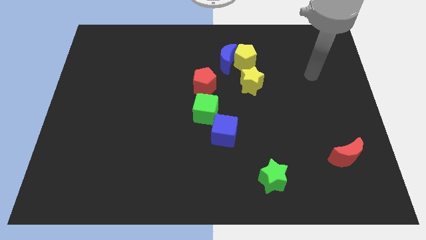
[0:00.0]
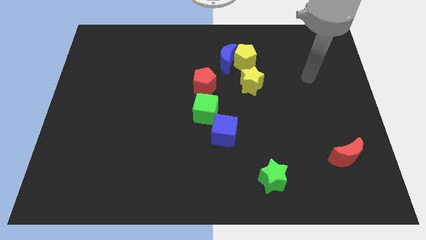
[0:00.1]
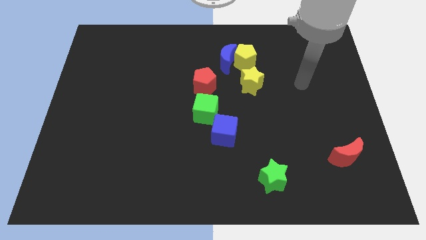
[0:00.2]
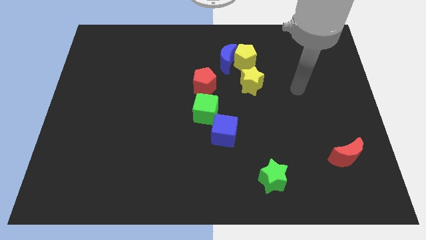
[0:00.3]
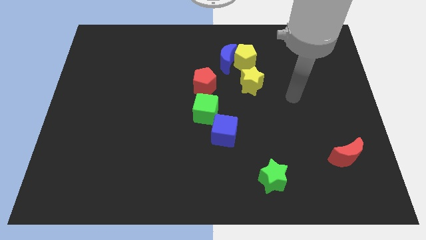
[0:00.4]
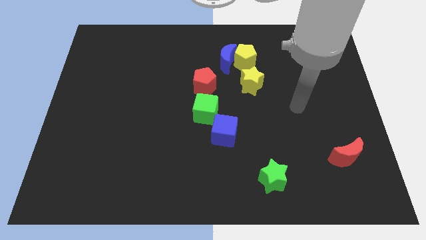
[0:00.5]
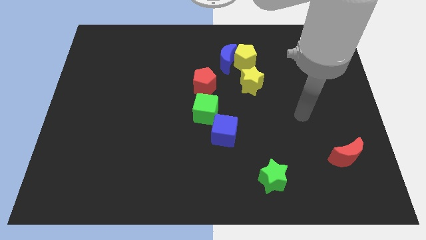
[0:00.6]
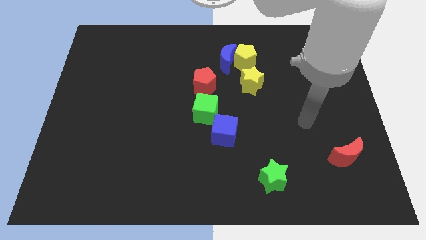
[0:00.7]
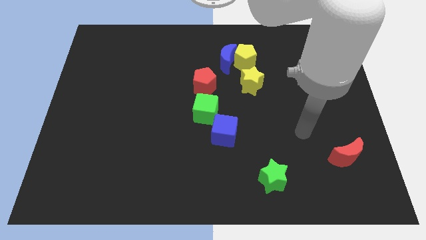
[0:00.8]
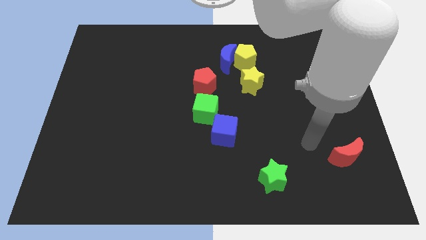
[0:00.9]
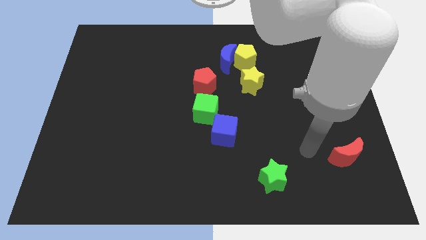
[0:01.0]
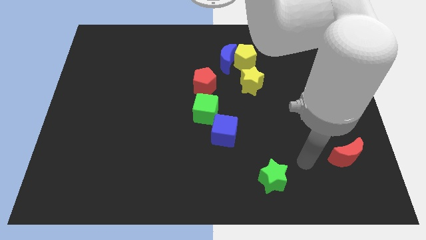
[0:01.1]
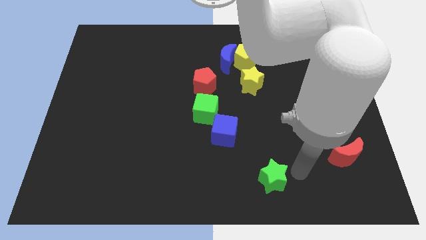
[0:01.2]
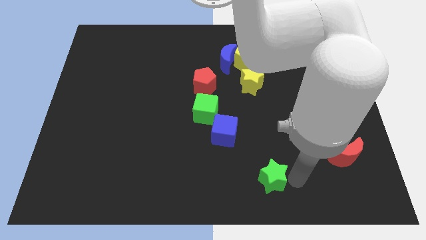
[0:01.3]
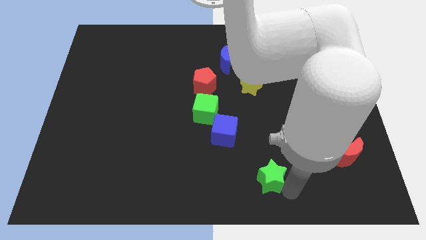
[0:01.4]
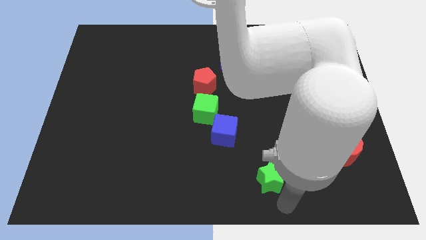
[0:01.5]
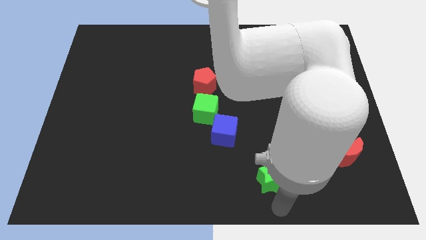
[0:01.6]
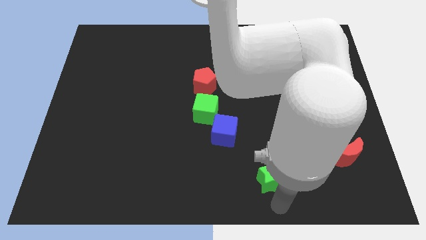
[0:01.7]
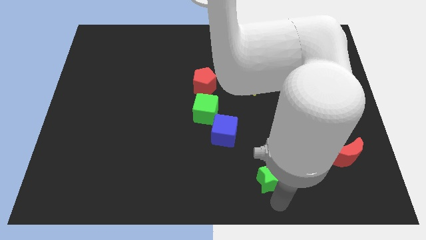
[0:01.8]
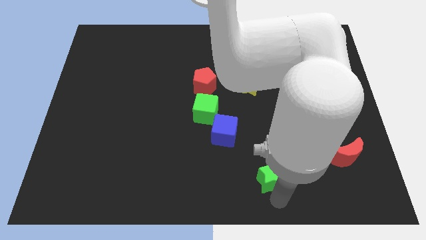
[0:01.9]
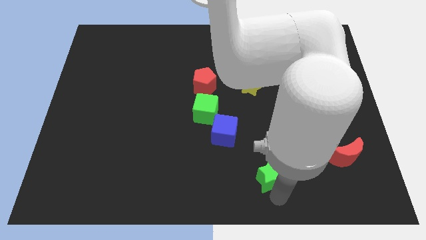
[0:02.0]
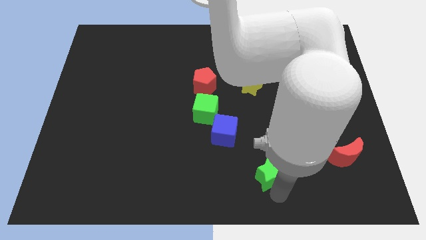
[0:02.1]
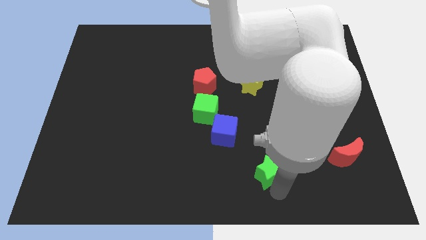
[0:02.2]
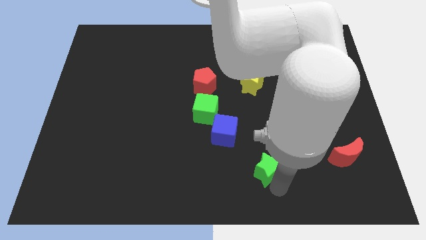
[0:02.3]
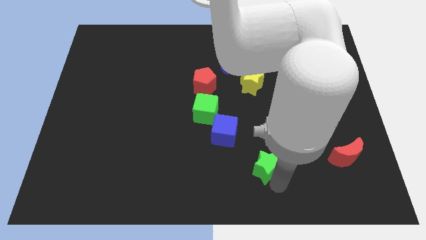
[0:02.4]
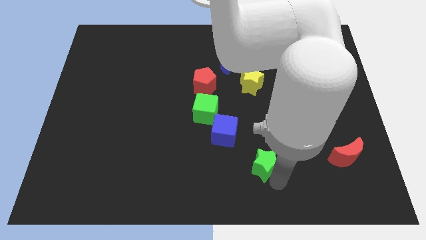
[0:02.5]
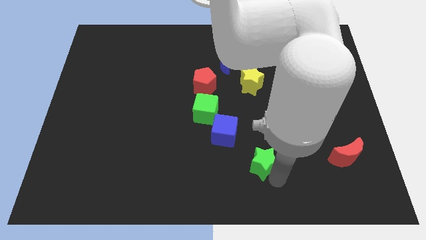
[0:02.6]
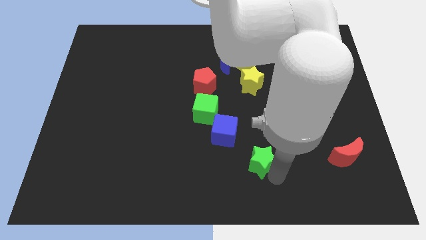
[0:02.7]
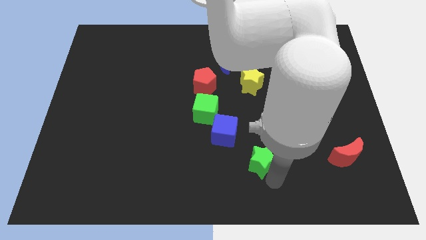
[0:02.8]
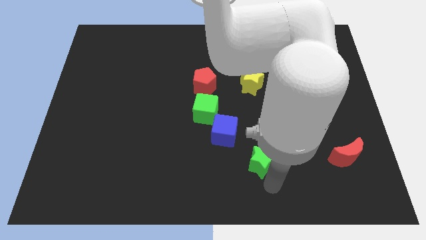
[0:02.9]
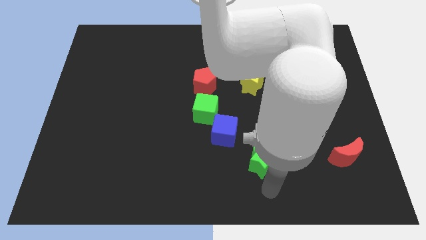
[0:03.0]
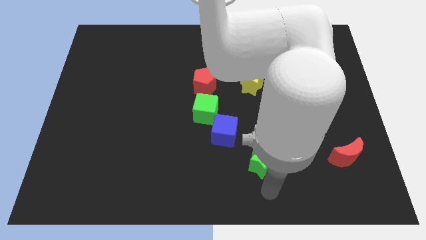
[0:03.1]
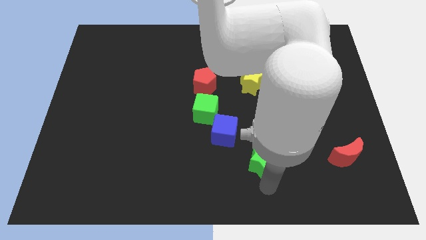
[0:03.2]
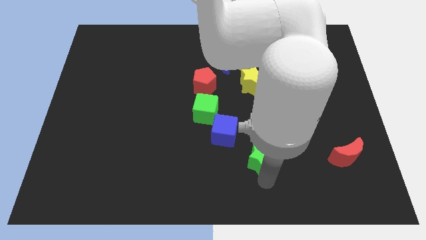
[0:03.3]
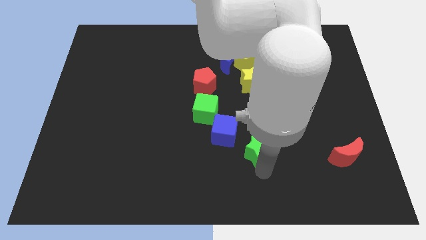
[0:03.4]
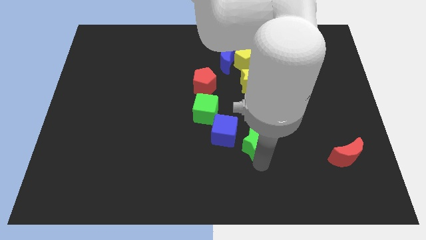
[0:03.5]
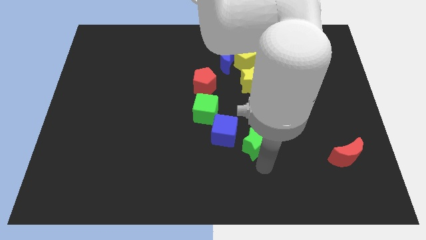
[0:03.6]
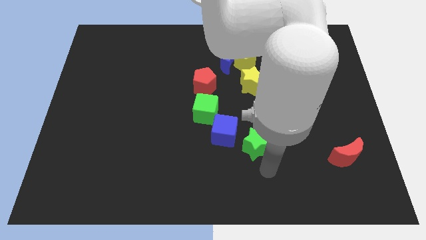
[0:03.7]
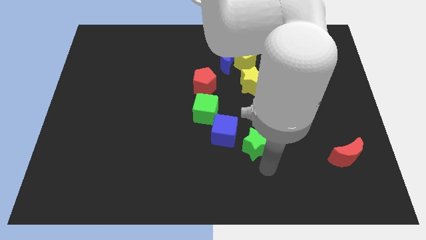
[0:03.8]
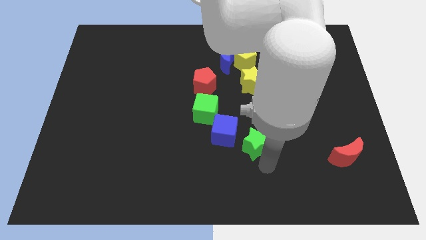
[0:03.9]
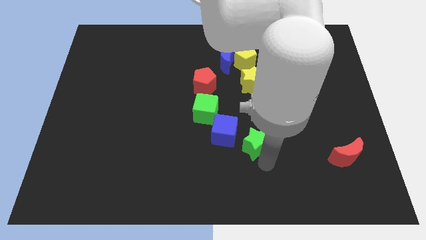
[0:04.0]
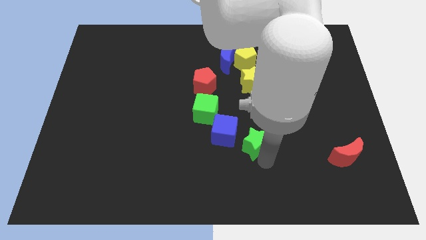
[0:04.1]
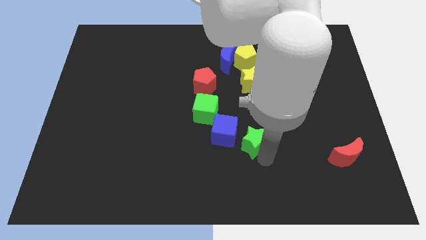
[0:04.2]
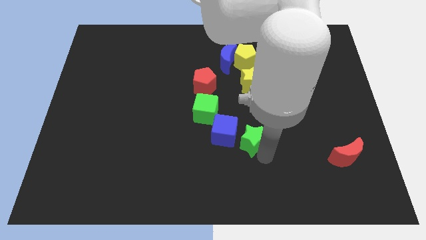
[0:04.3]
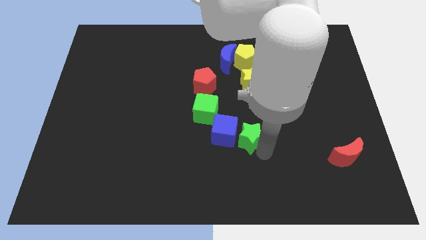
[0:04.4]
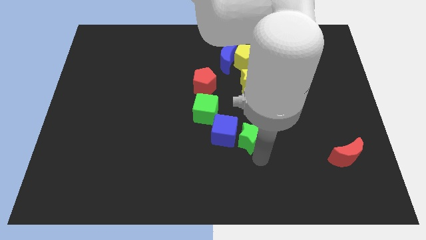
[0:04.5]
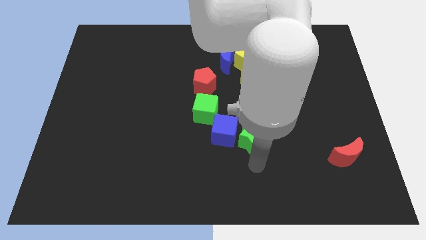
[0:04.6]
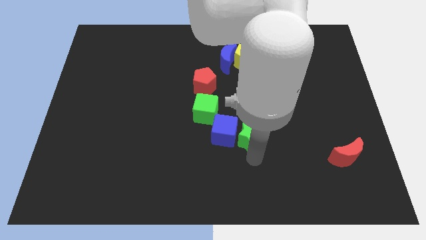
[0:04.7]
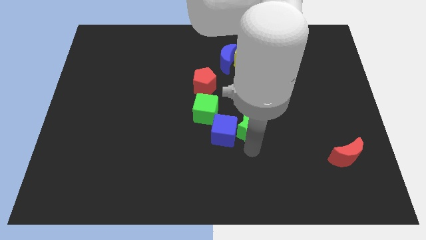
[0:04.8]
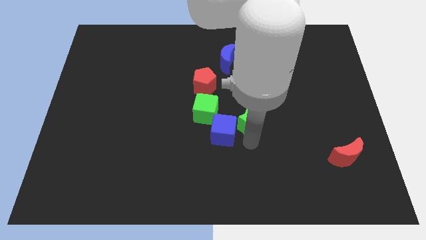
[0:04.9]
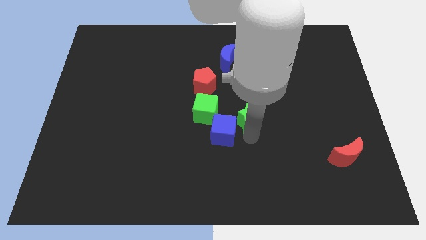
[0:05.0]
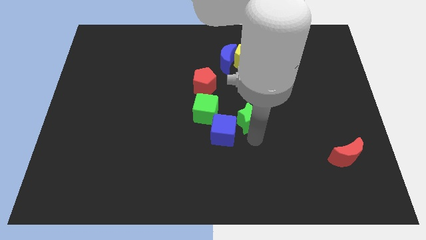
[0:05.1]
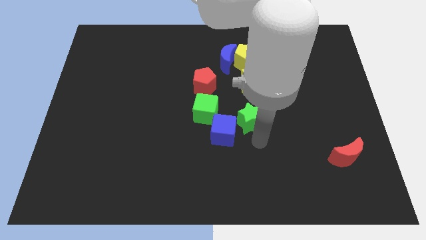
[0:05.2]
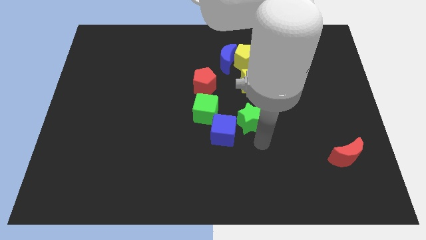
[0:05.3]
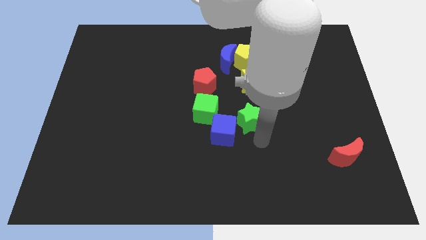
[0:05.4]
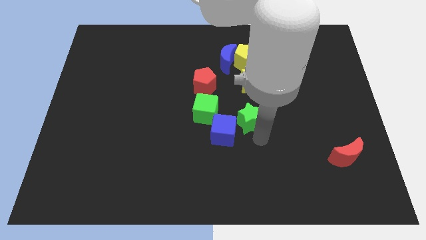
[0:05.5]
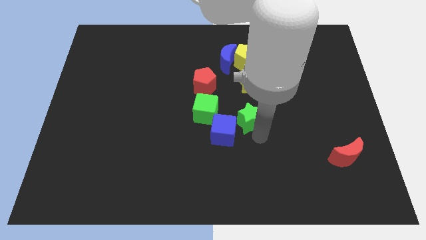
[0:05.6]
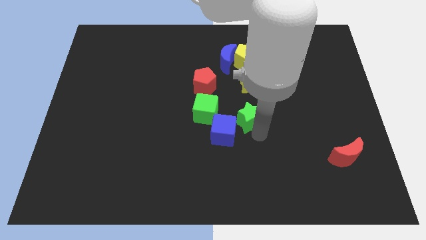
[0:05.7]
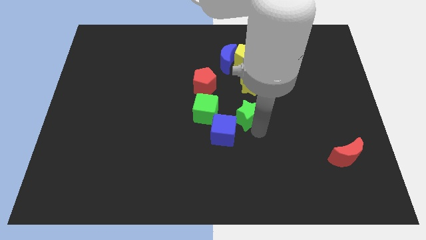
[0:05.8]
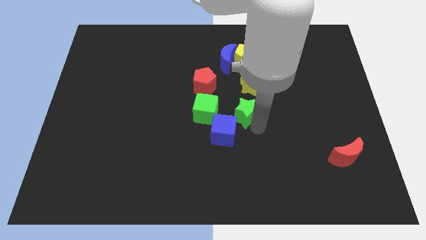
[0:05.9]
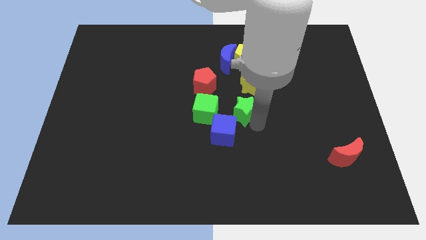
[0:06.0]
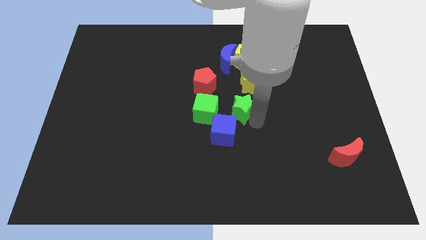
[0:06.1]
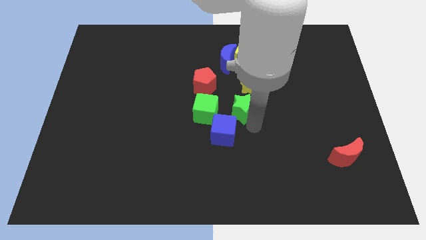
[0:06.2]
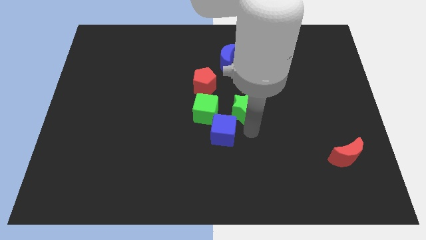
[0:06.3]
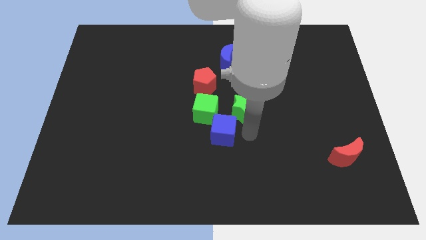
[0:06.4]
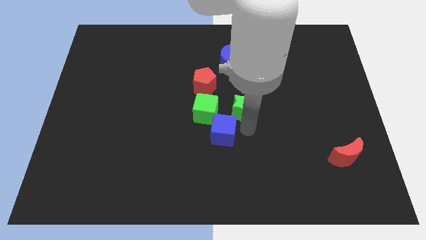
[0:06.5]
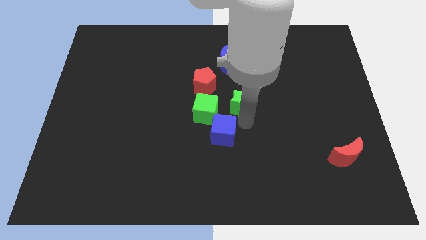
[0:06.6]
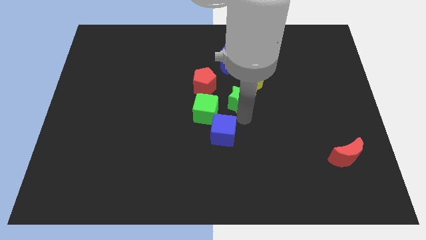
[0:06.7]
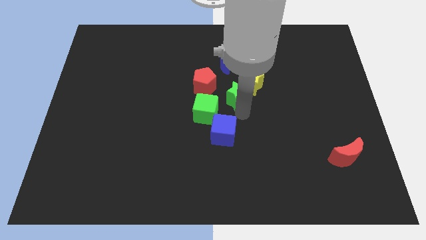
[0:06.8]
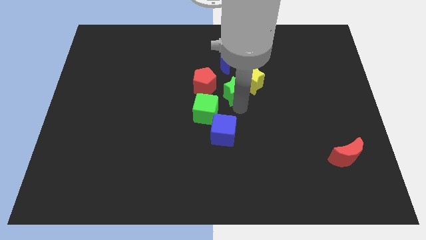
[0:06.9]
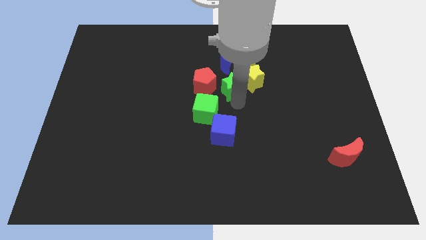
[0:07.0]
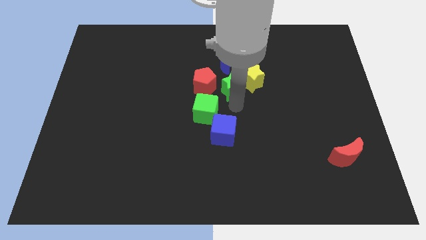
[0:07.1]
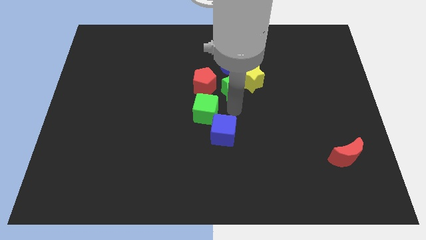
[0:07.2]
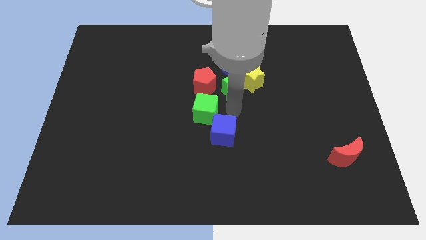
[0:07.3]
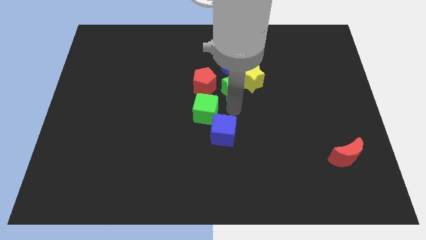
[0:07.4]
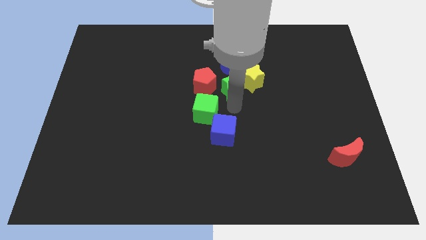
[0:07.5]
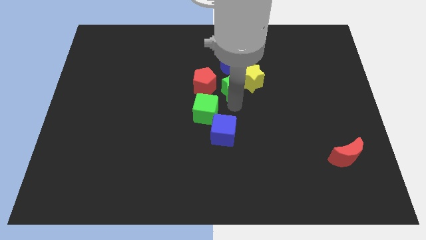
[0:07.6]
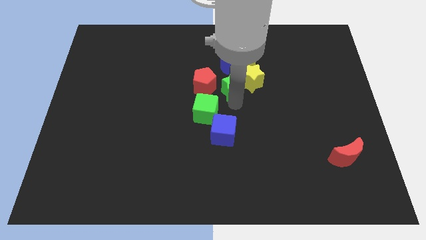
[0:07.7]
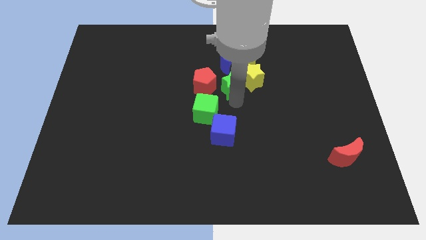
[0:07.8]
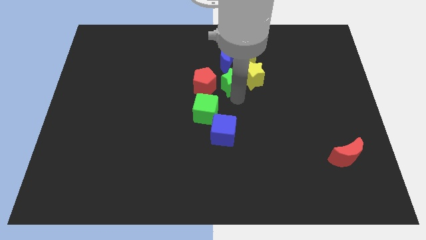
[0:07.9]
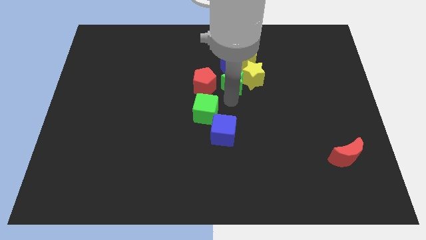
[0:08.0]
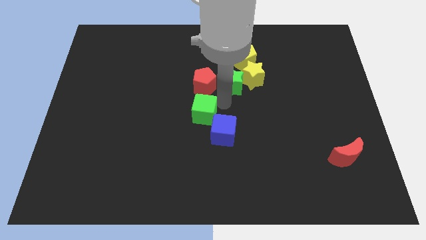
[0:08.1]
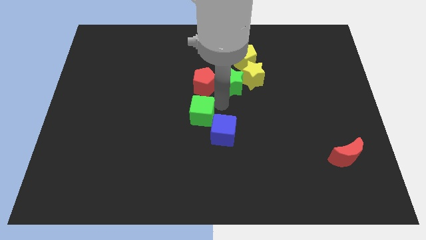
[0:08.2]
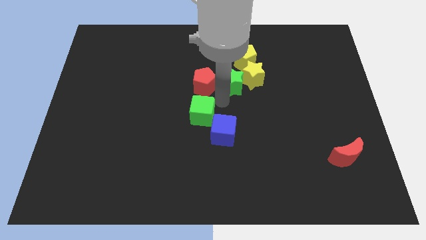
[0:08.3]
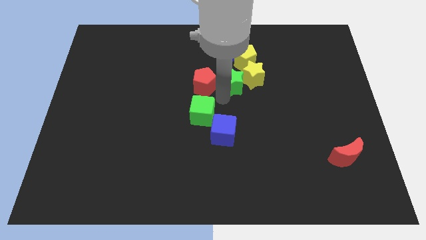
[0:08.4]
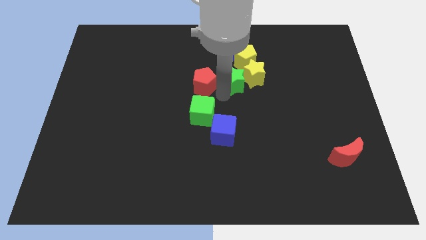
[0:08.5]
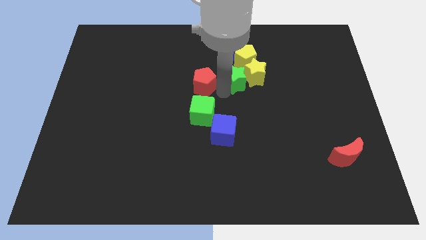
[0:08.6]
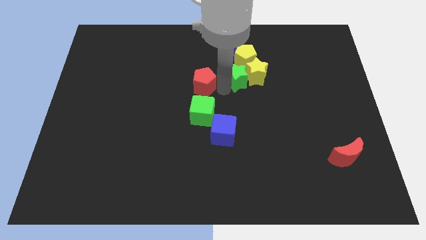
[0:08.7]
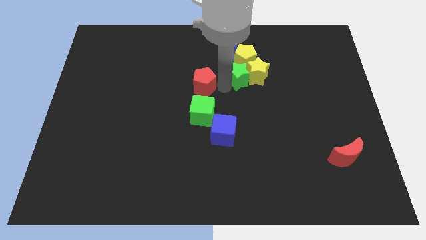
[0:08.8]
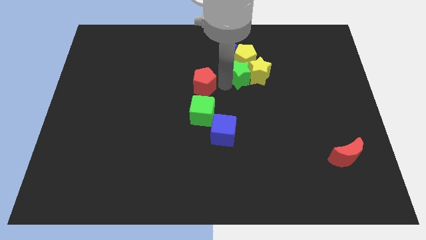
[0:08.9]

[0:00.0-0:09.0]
move the green star next to the yellow pentagon
